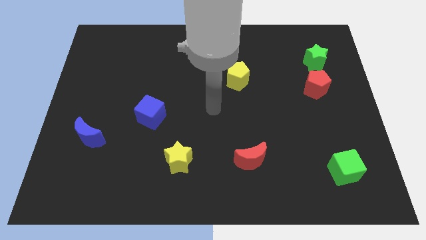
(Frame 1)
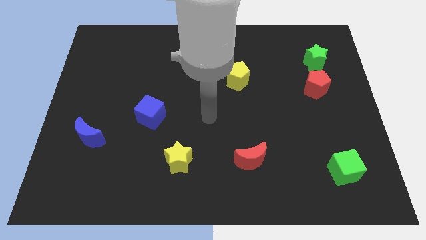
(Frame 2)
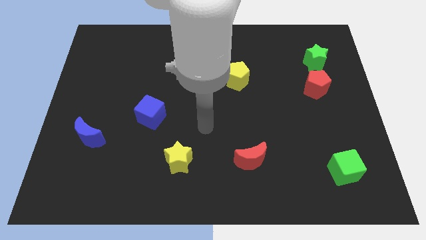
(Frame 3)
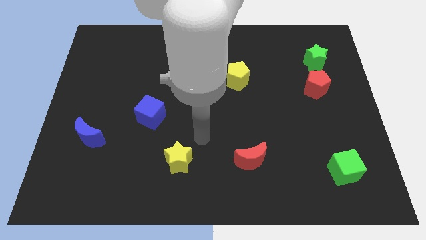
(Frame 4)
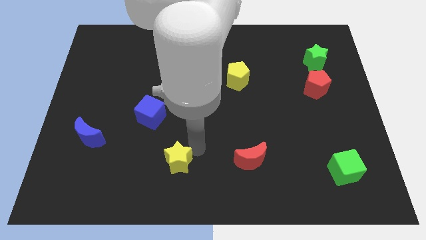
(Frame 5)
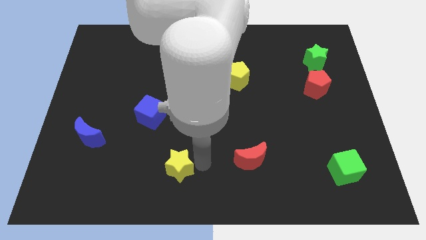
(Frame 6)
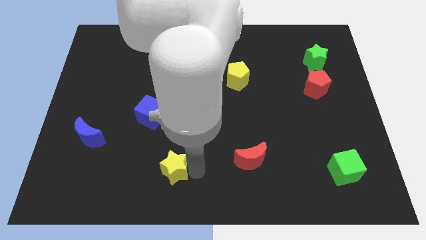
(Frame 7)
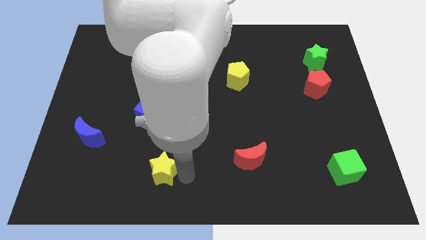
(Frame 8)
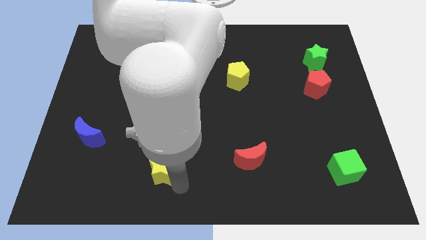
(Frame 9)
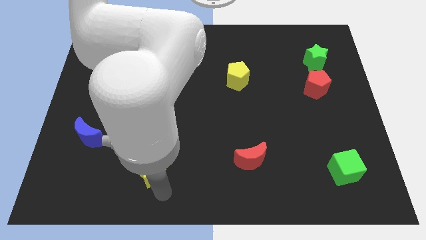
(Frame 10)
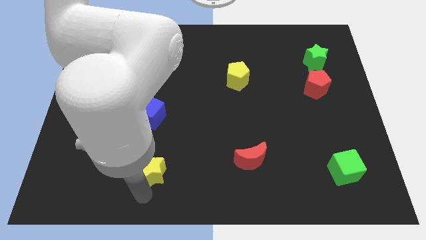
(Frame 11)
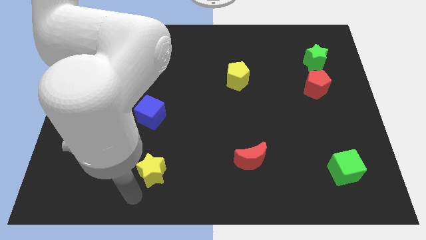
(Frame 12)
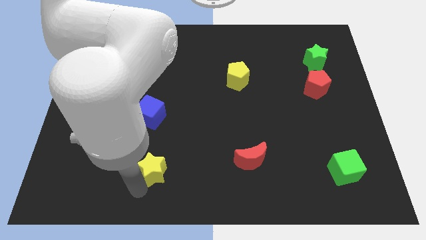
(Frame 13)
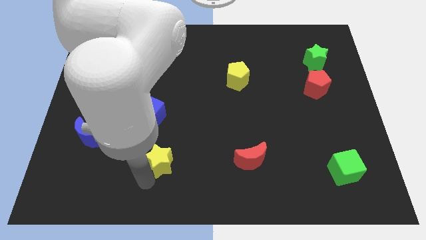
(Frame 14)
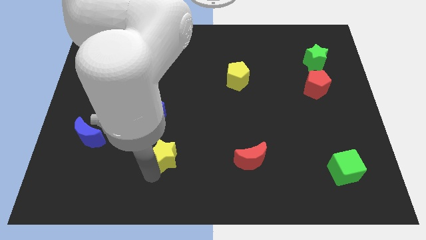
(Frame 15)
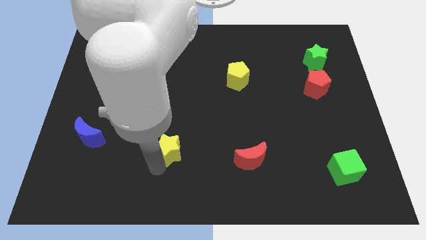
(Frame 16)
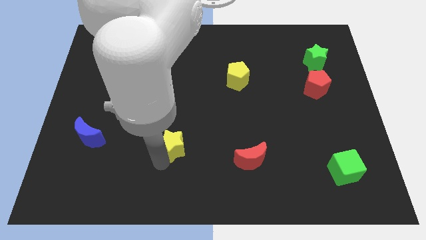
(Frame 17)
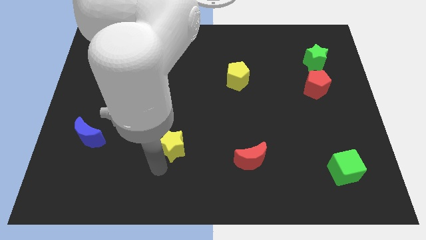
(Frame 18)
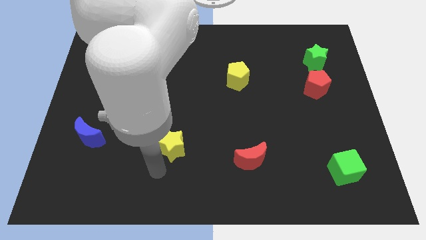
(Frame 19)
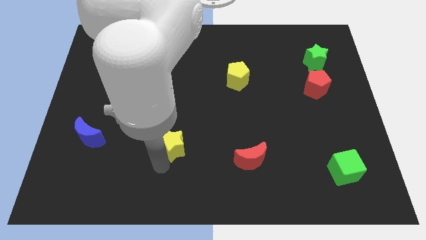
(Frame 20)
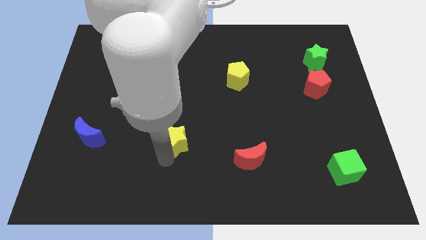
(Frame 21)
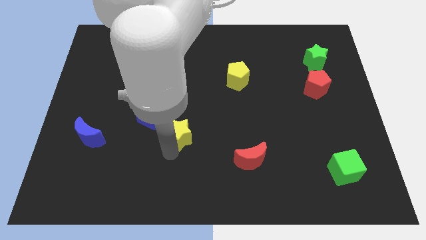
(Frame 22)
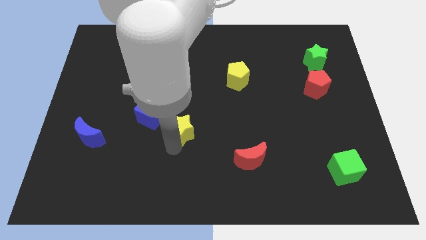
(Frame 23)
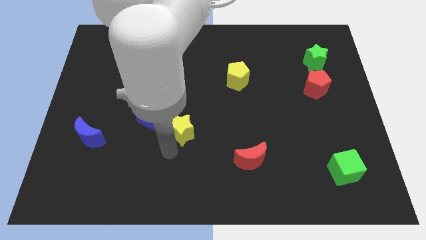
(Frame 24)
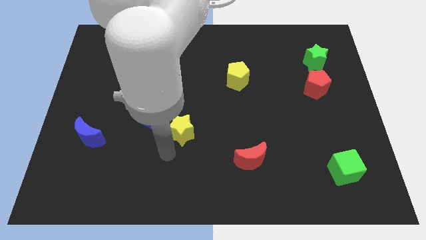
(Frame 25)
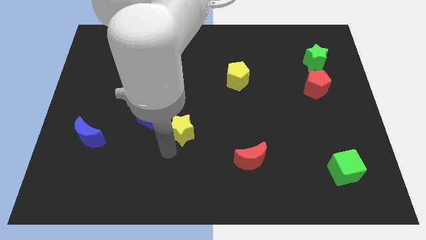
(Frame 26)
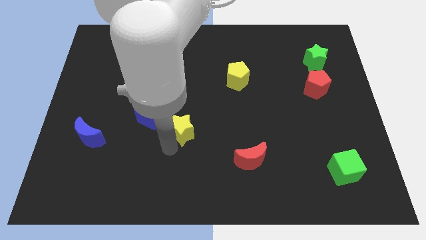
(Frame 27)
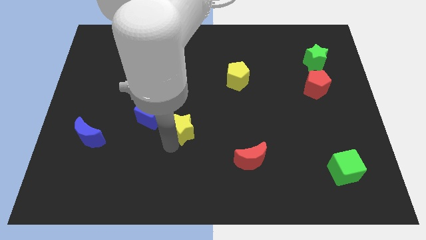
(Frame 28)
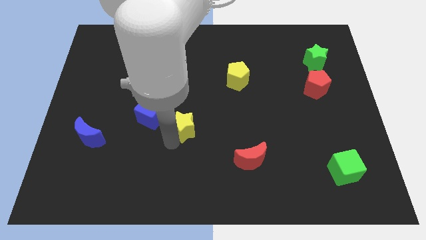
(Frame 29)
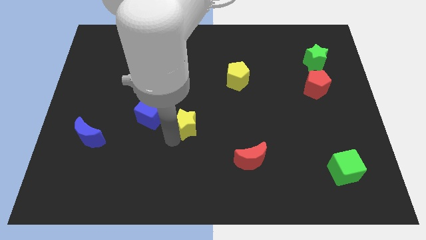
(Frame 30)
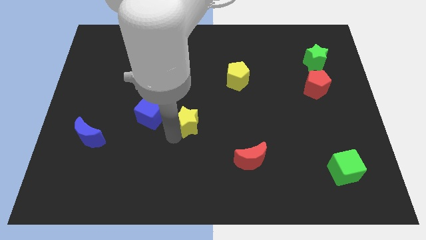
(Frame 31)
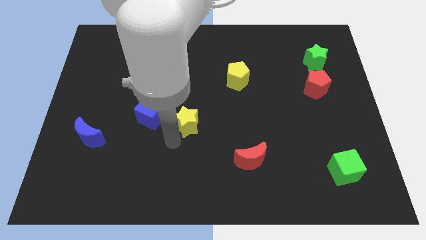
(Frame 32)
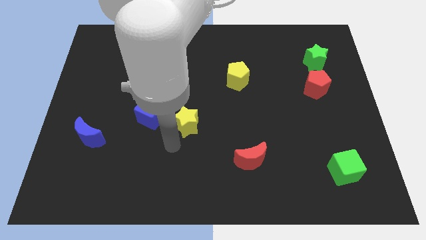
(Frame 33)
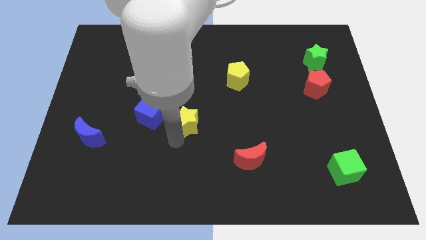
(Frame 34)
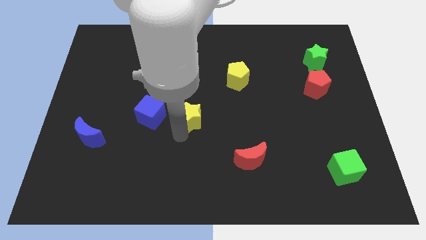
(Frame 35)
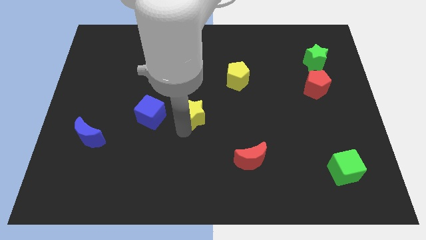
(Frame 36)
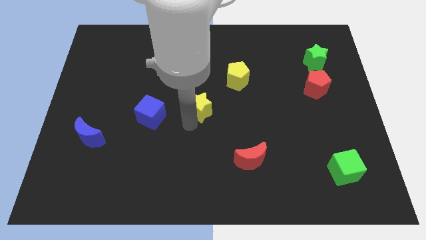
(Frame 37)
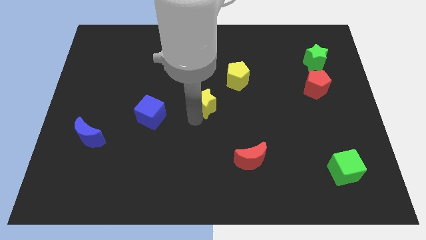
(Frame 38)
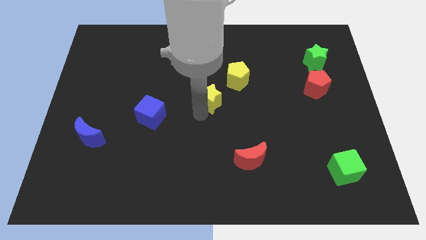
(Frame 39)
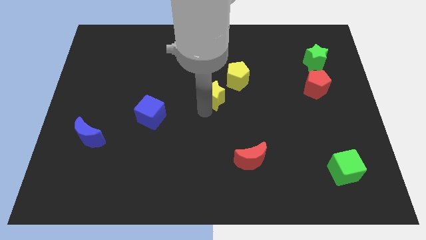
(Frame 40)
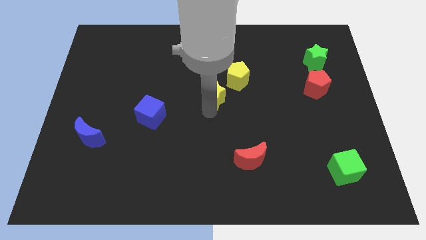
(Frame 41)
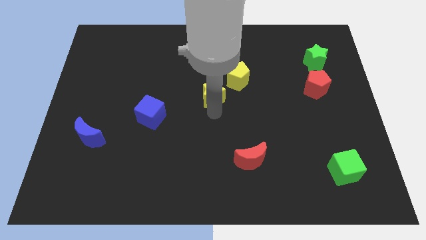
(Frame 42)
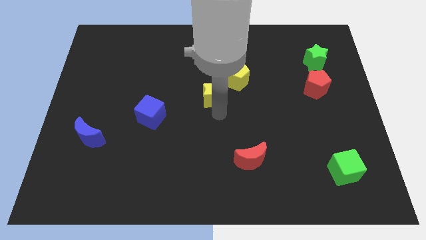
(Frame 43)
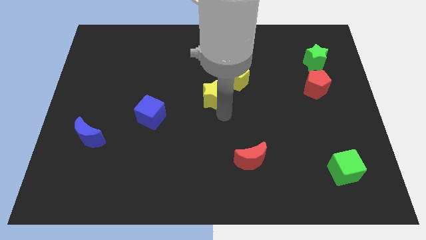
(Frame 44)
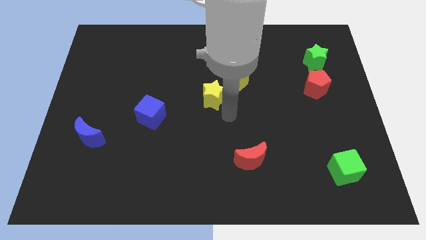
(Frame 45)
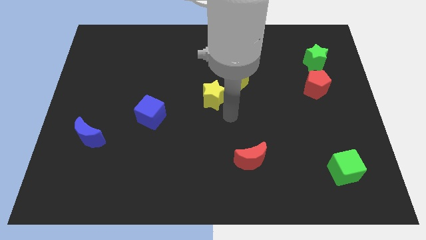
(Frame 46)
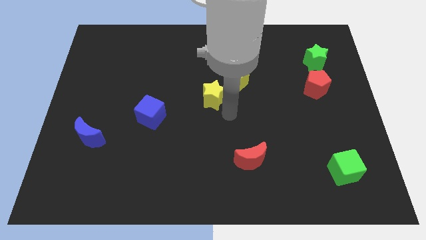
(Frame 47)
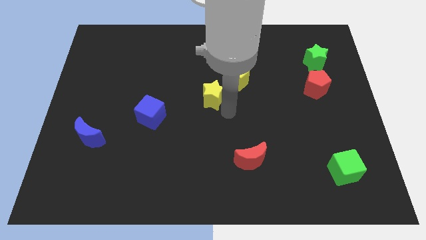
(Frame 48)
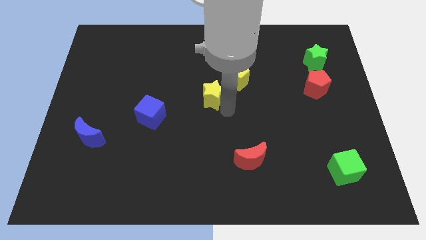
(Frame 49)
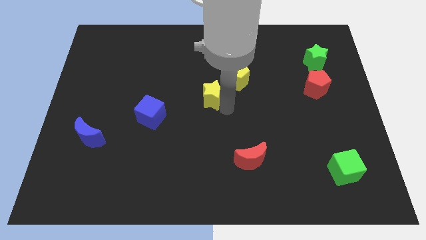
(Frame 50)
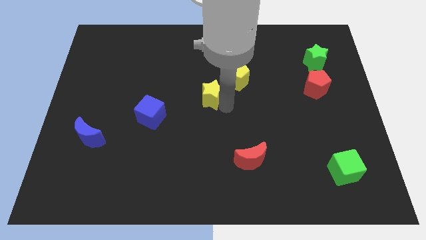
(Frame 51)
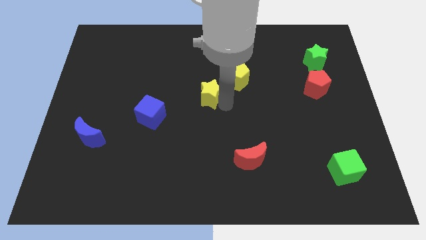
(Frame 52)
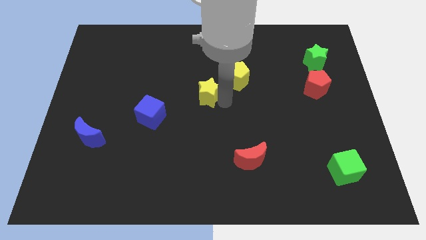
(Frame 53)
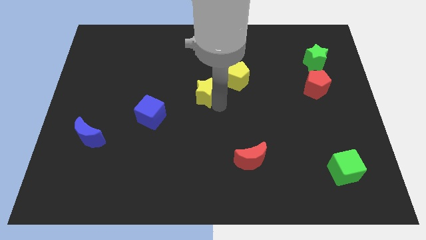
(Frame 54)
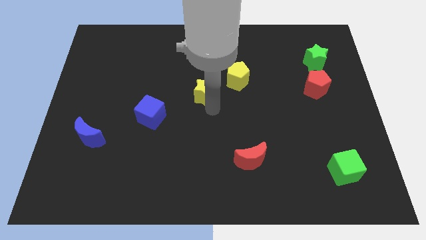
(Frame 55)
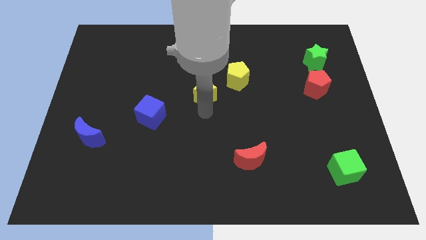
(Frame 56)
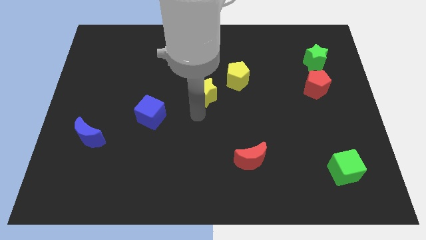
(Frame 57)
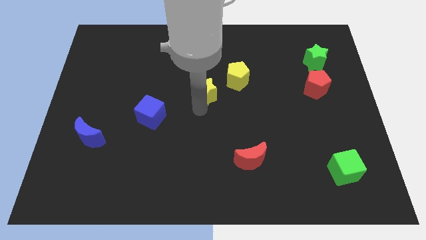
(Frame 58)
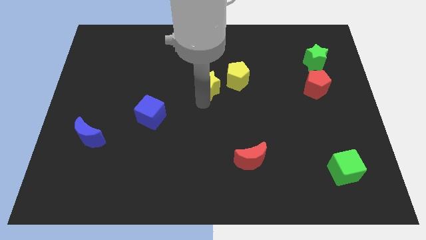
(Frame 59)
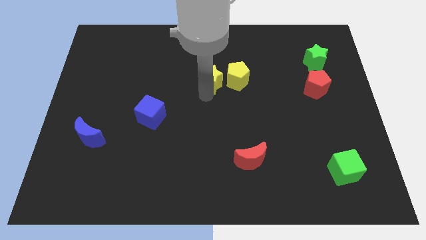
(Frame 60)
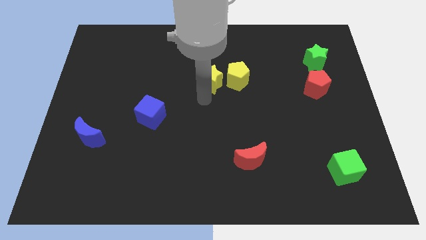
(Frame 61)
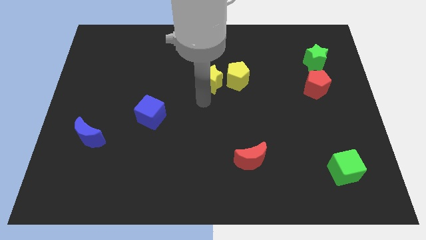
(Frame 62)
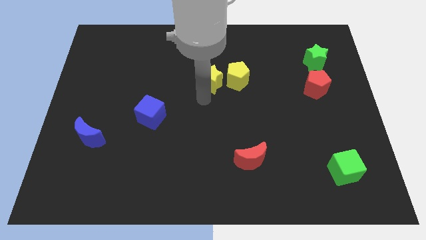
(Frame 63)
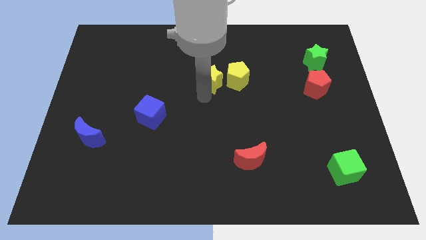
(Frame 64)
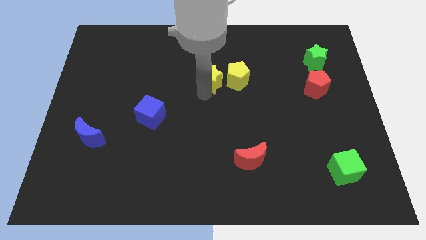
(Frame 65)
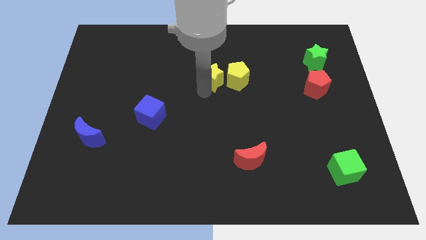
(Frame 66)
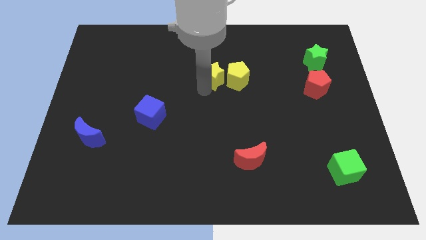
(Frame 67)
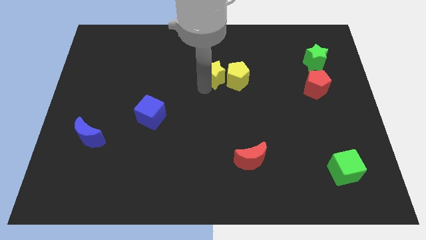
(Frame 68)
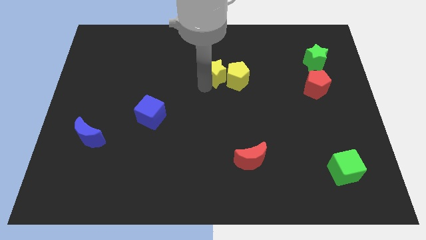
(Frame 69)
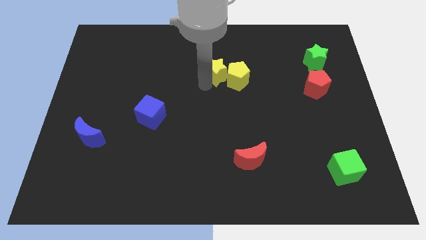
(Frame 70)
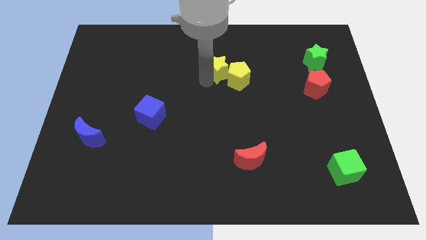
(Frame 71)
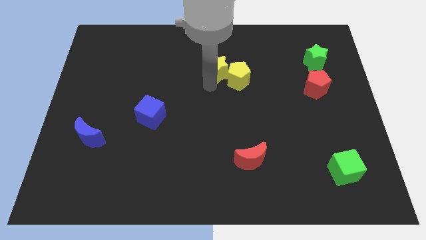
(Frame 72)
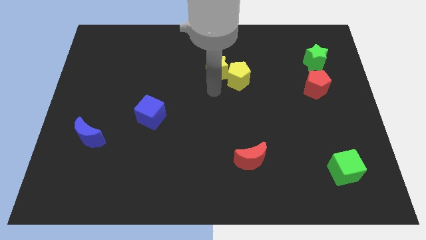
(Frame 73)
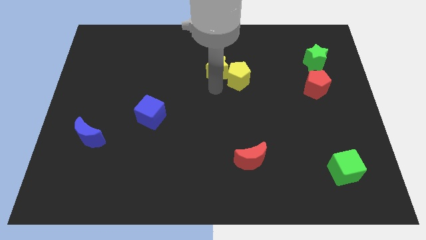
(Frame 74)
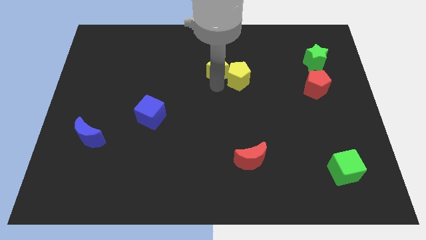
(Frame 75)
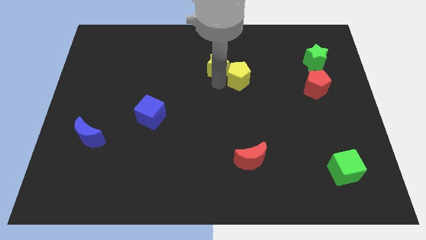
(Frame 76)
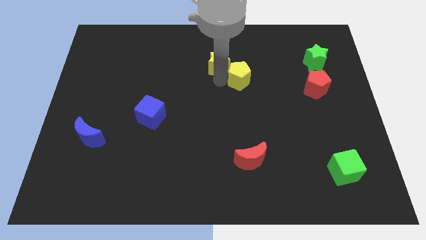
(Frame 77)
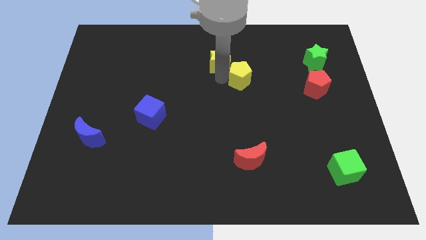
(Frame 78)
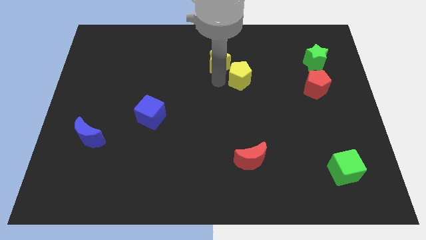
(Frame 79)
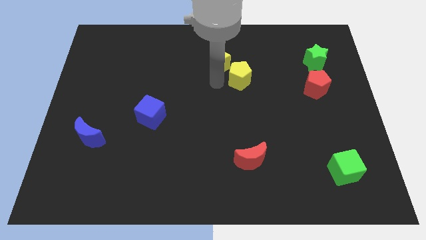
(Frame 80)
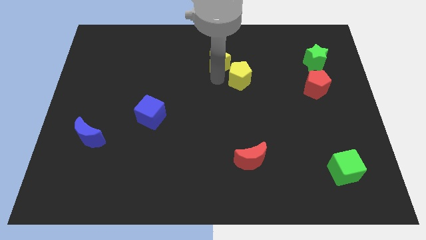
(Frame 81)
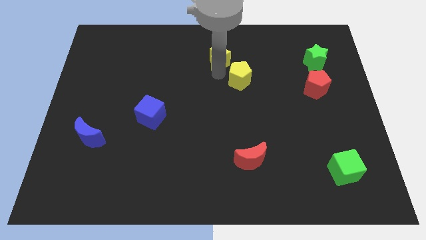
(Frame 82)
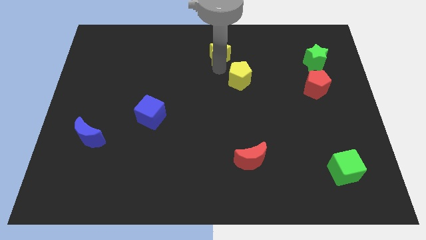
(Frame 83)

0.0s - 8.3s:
put the yellow star to the towards your base
